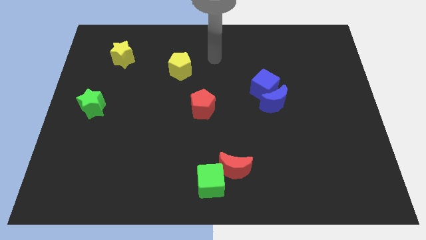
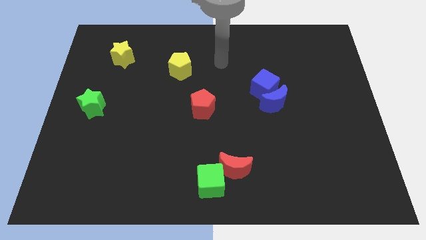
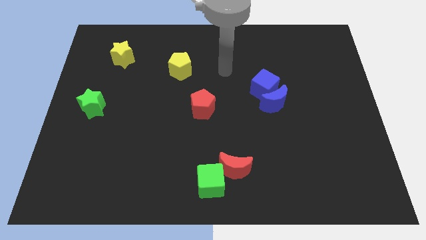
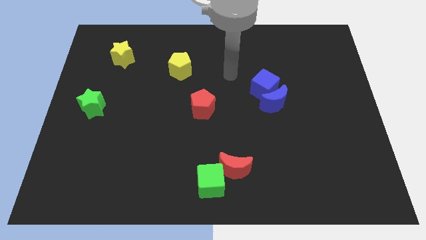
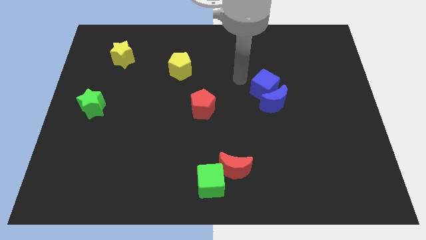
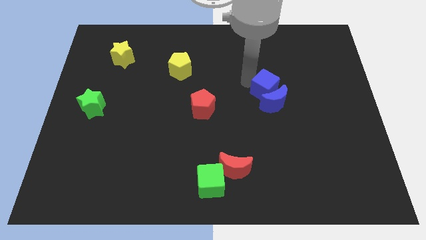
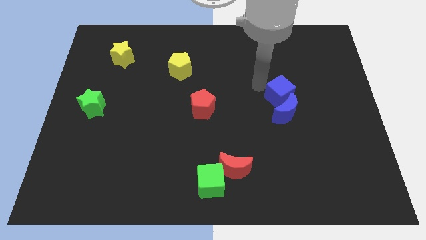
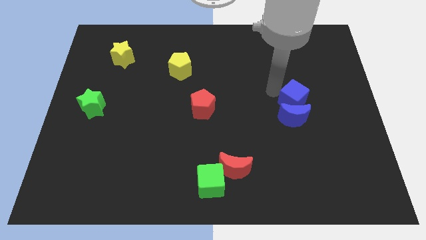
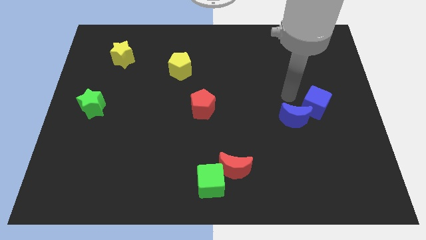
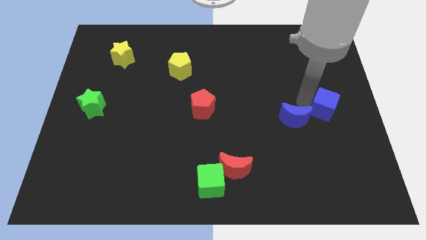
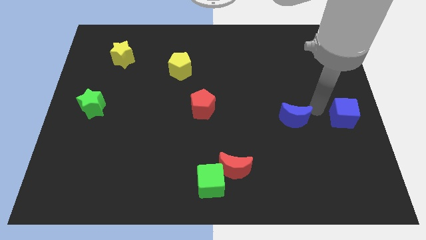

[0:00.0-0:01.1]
separate the blue moon from the blue cube

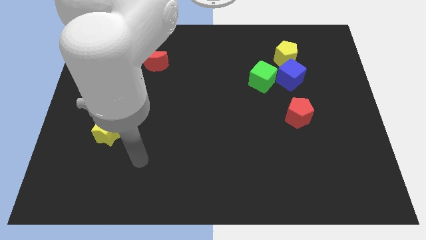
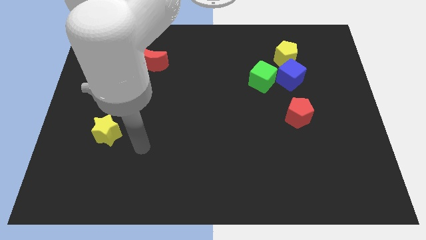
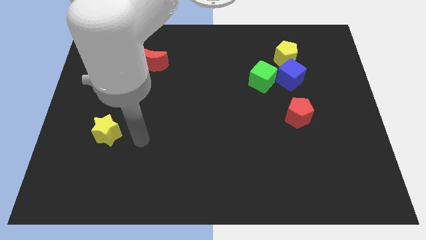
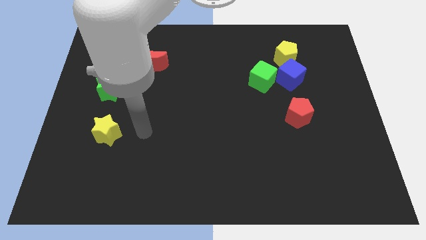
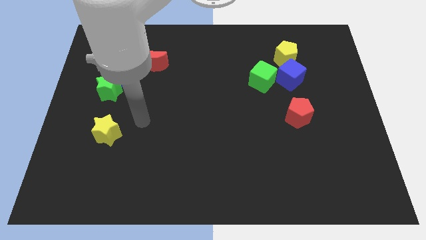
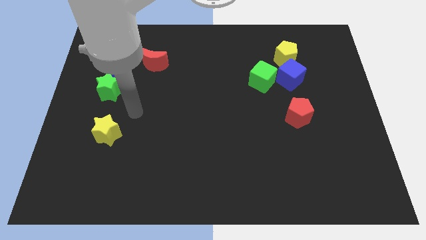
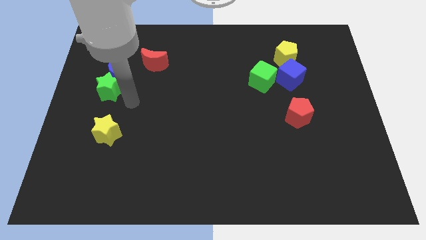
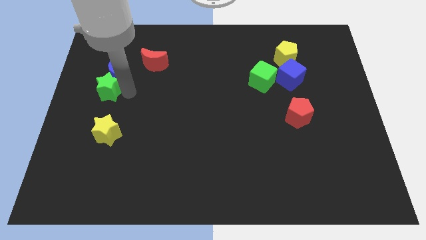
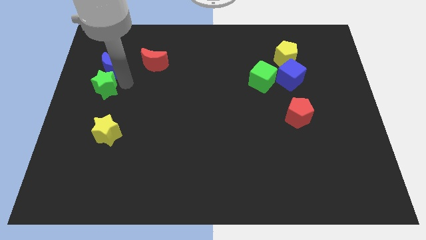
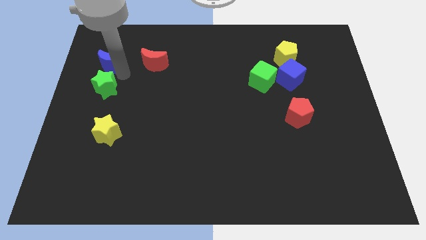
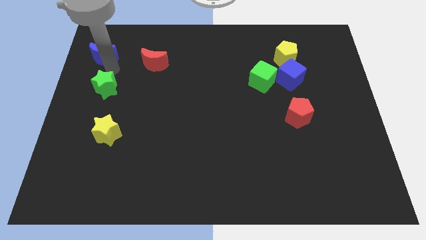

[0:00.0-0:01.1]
separate the green star from the blue moon

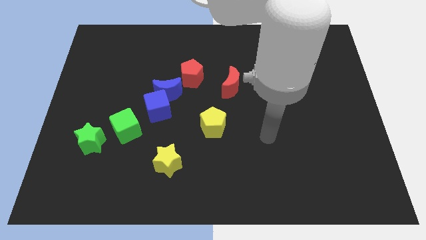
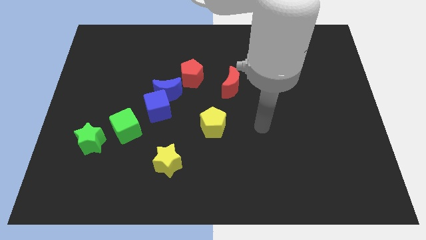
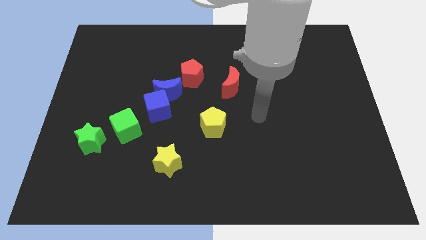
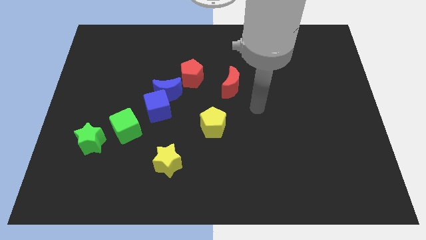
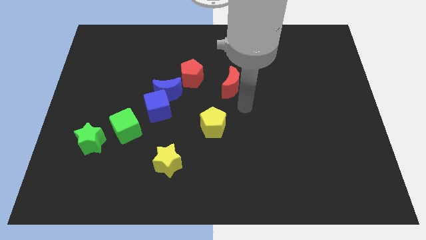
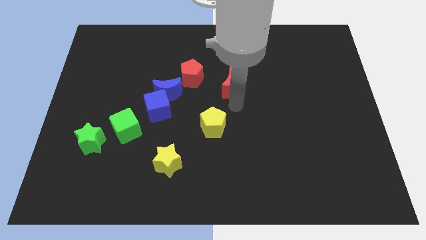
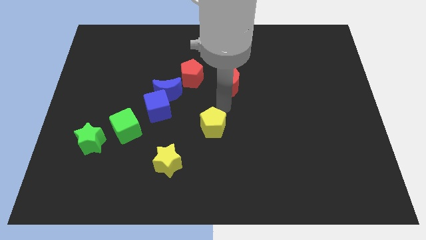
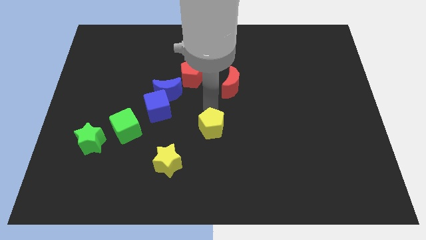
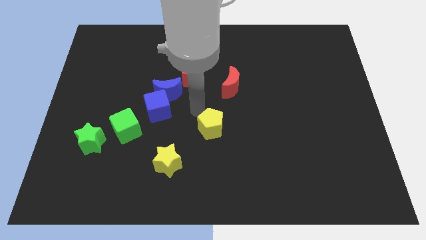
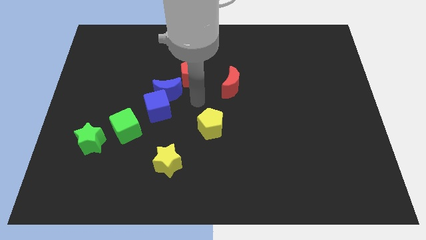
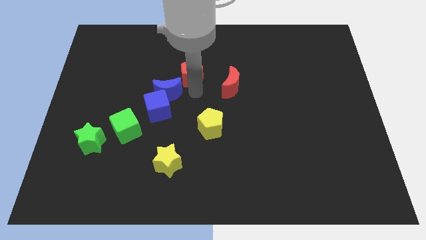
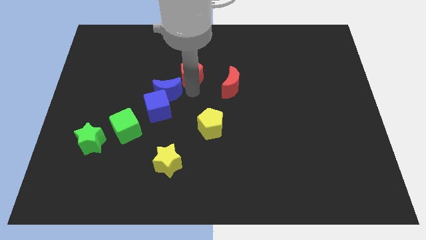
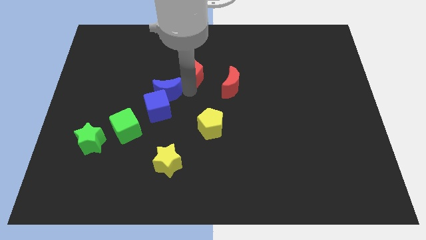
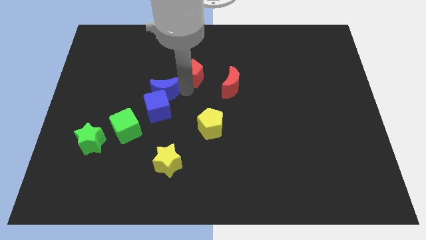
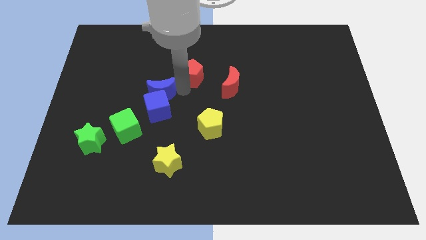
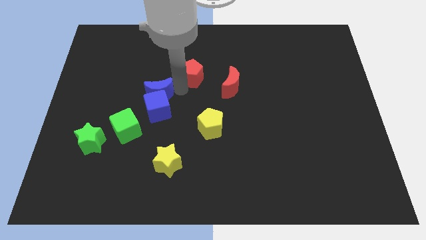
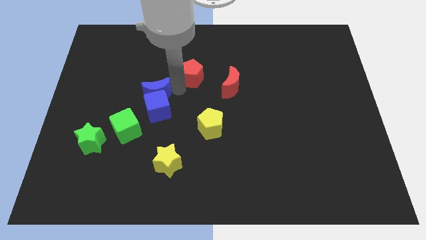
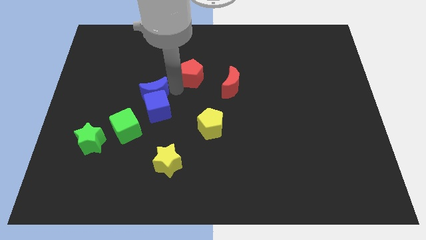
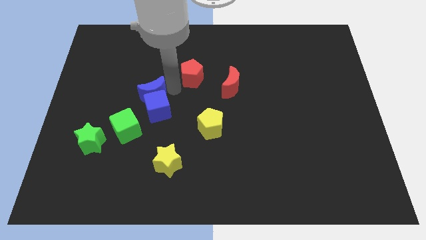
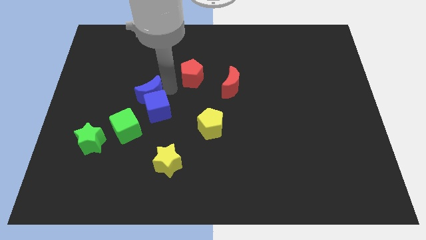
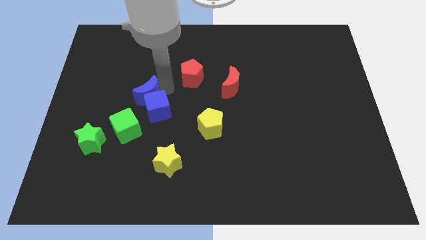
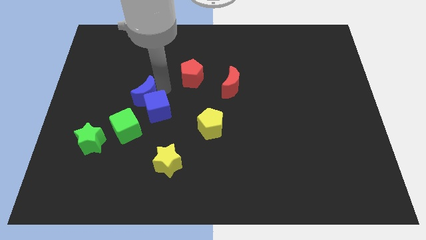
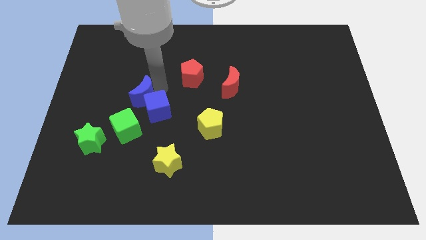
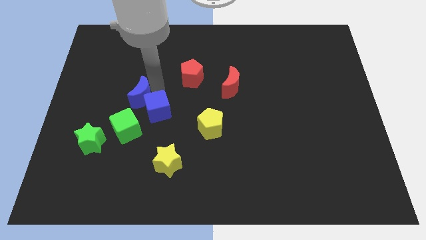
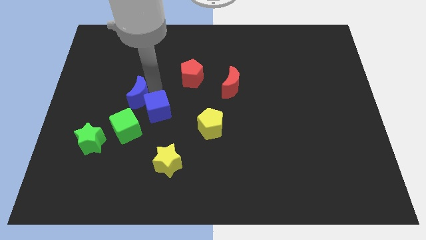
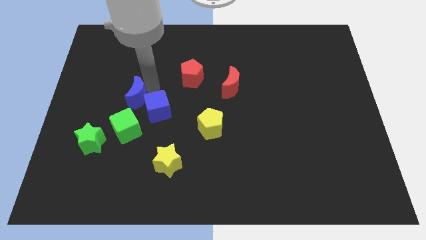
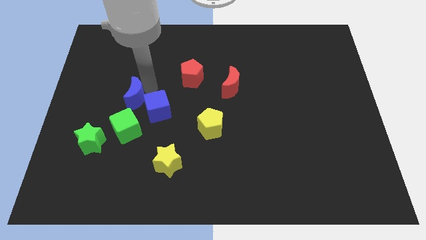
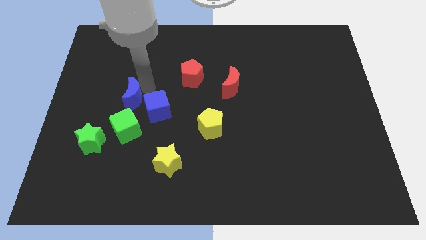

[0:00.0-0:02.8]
pull the blue moon apart from the blue cube and red pentagon

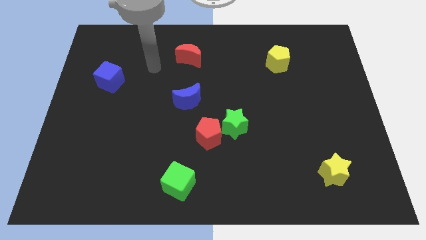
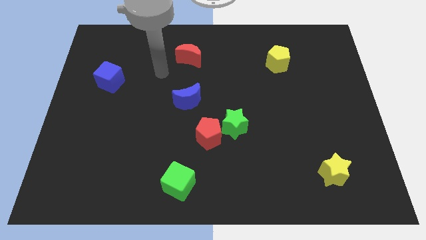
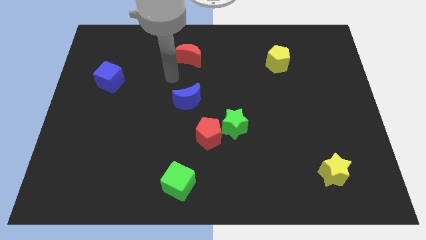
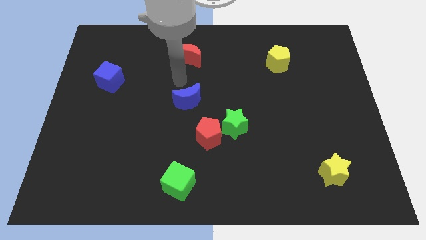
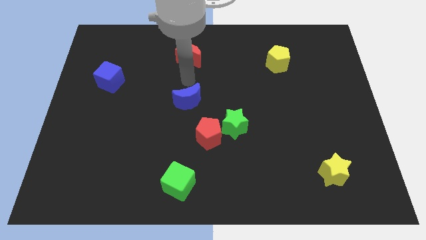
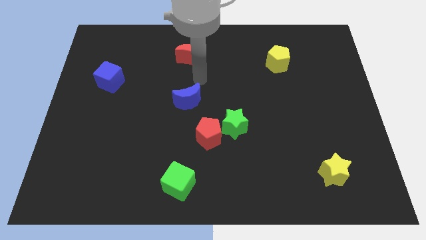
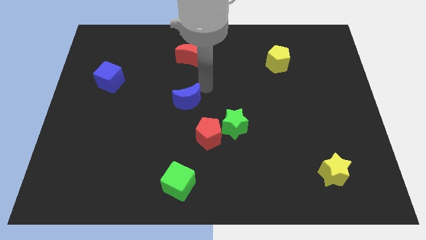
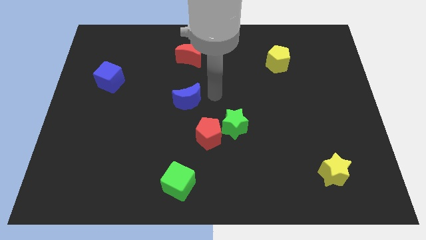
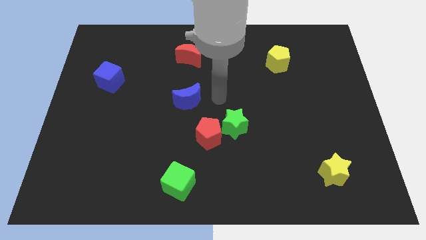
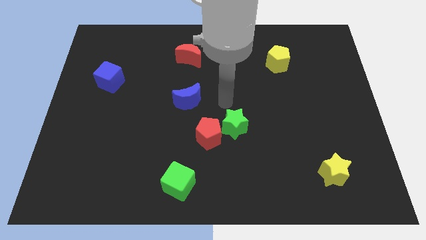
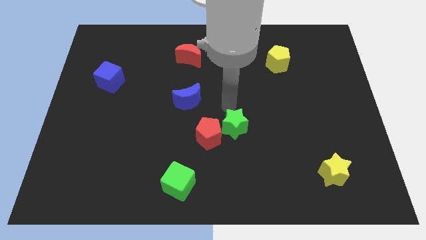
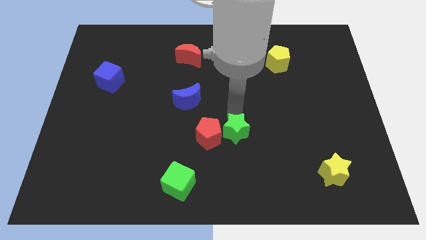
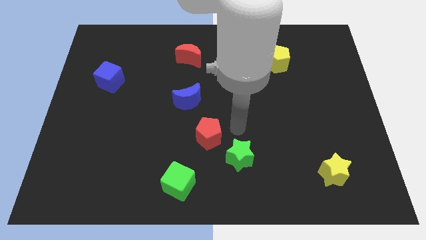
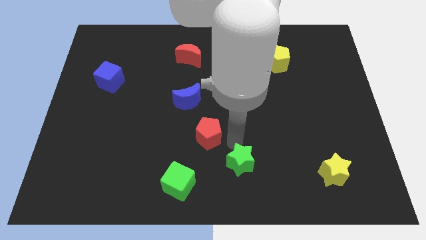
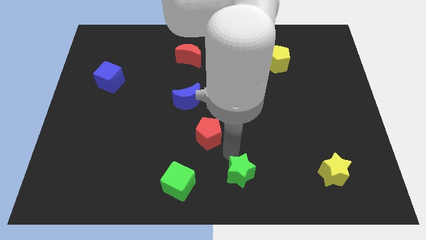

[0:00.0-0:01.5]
move the red pentagon away from the green star

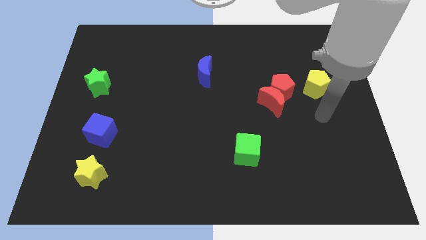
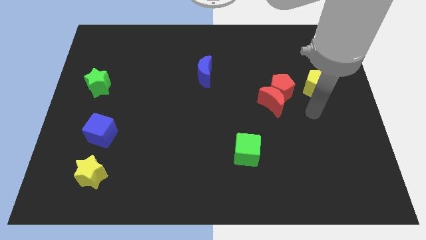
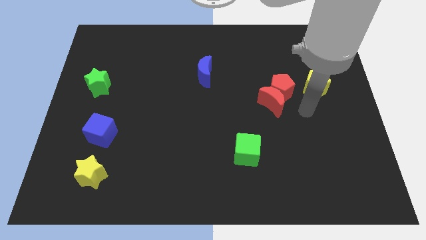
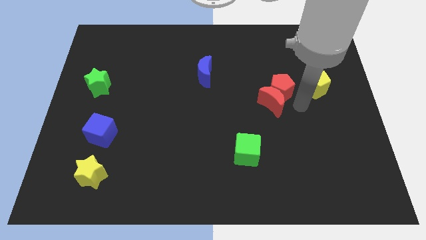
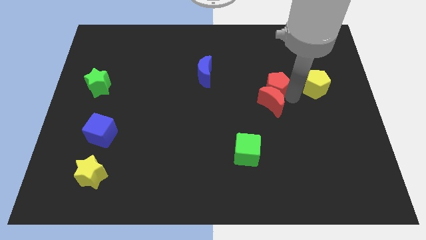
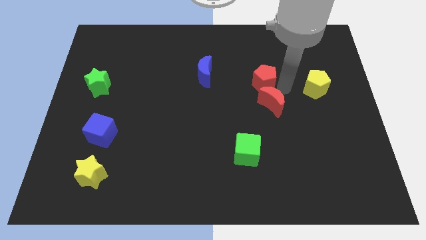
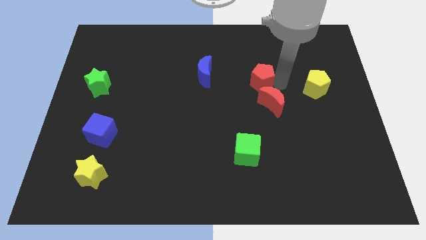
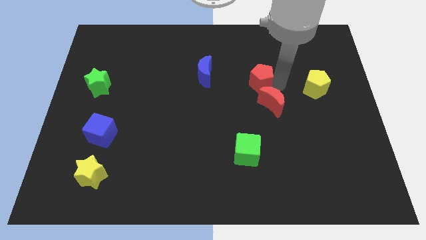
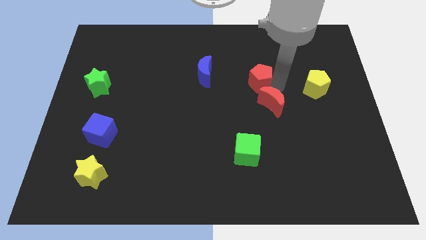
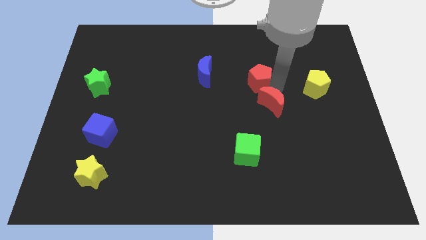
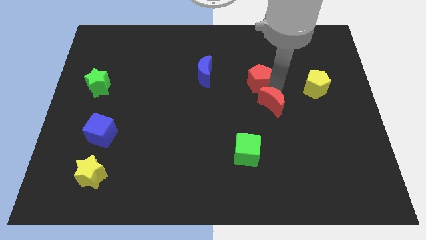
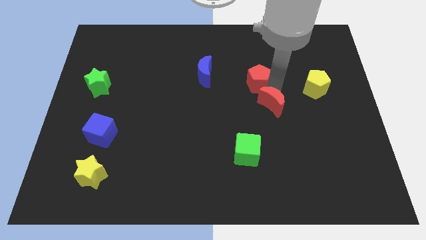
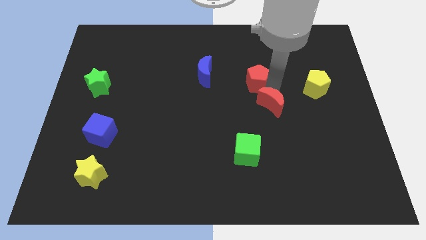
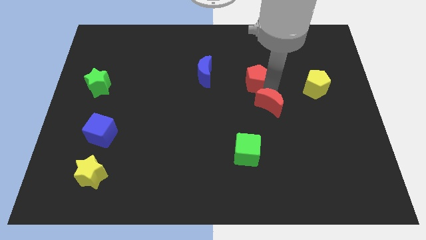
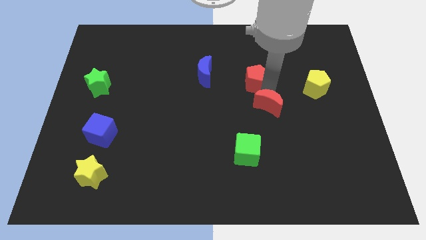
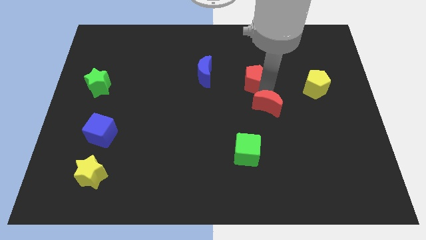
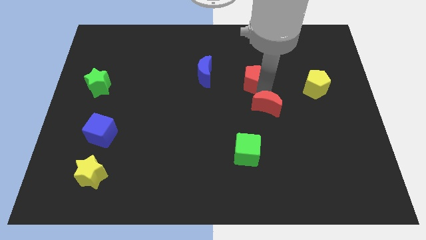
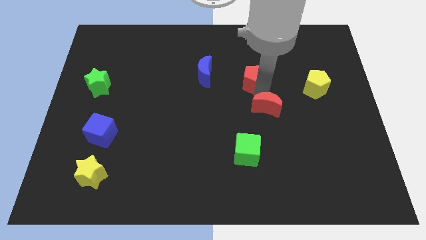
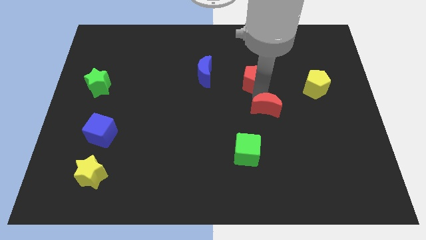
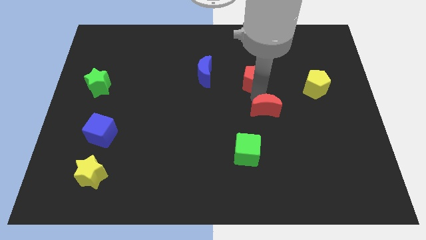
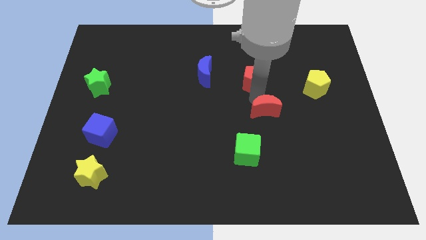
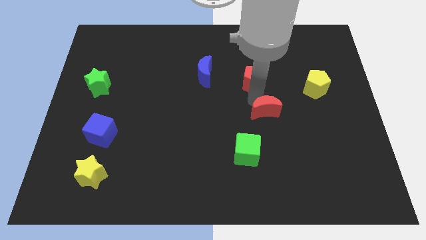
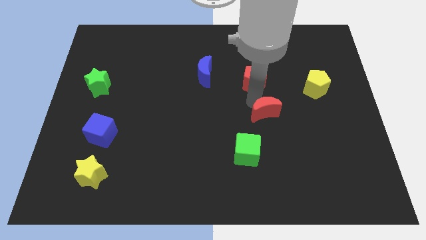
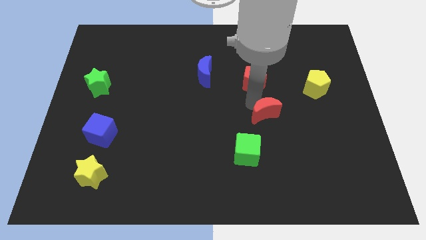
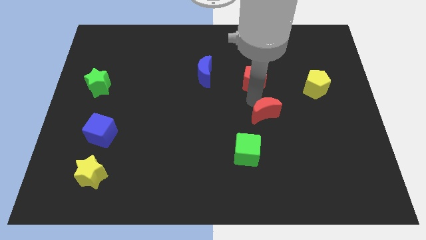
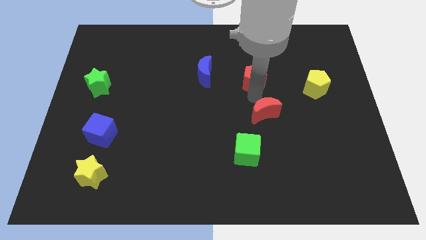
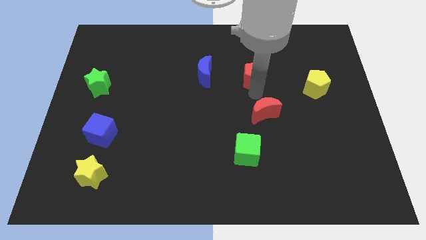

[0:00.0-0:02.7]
separate the red moon from the red pentagon
